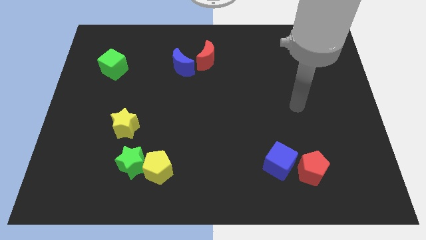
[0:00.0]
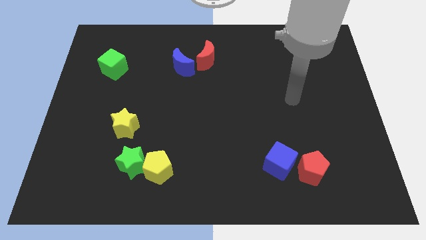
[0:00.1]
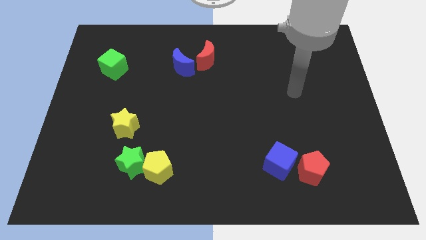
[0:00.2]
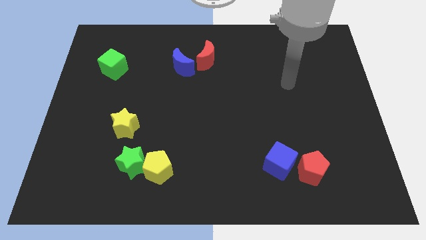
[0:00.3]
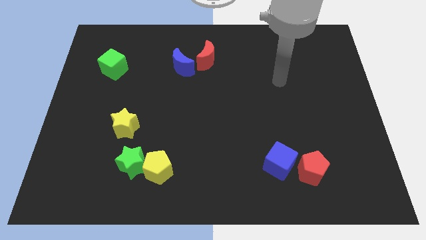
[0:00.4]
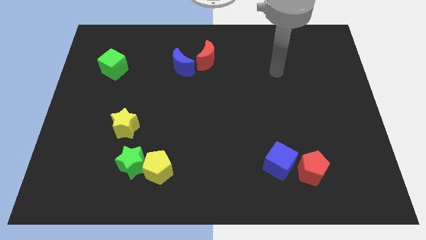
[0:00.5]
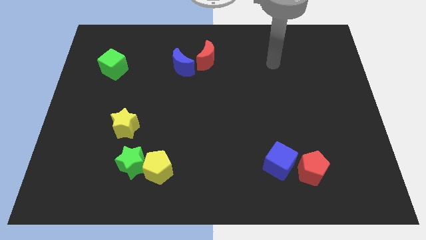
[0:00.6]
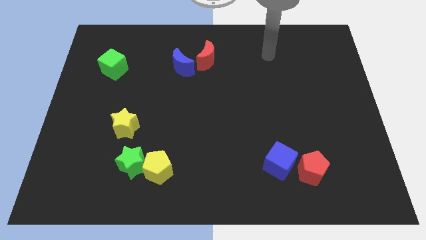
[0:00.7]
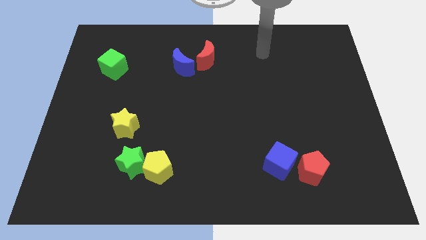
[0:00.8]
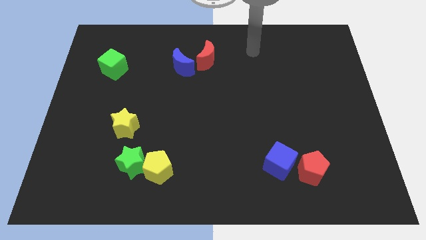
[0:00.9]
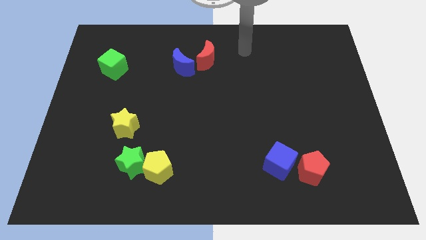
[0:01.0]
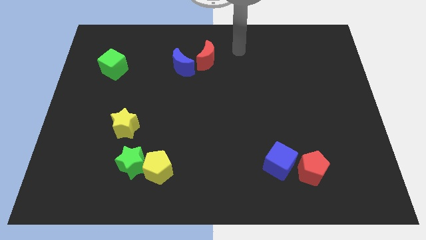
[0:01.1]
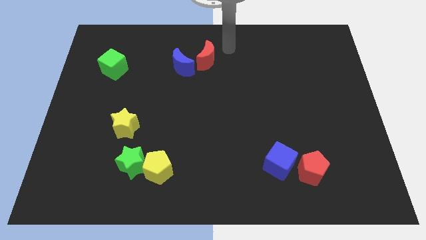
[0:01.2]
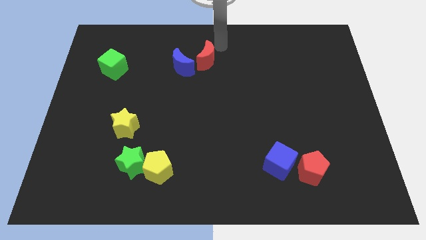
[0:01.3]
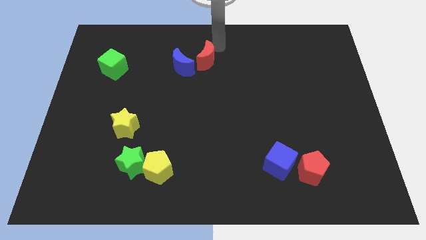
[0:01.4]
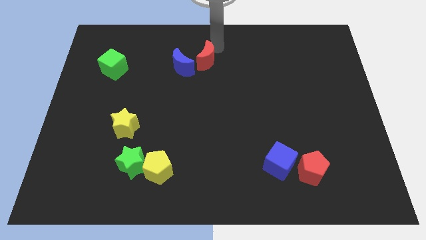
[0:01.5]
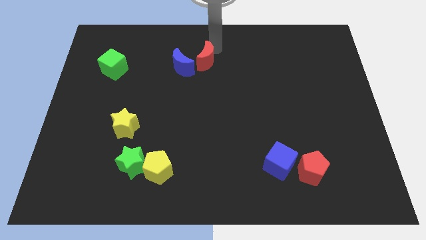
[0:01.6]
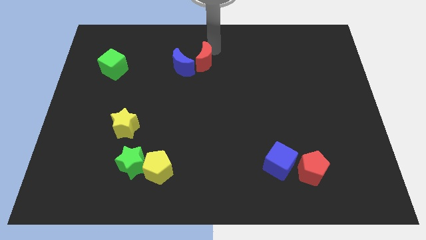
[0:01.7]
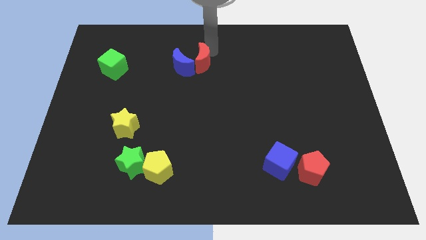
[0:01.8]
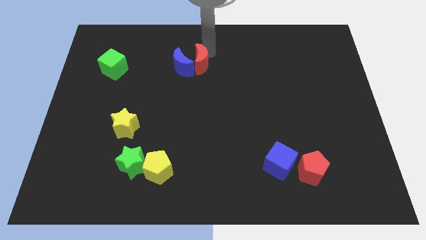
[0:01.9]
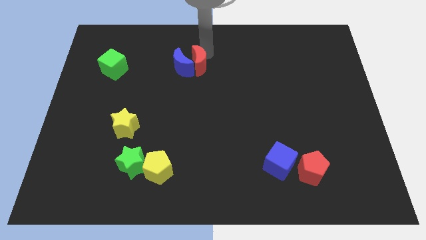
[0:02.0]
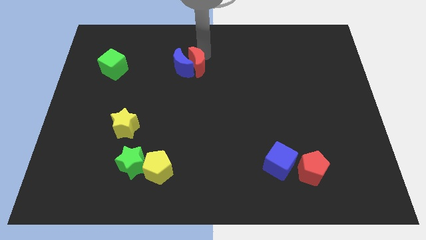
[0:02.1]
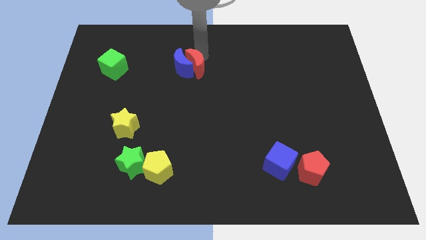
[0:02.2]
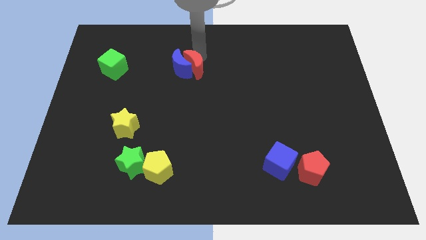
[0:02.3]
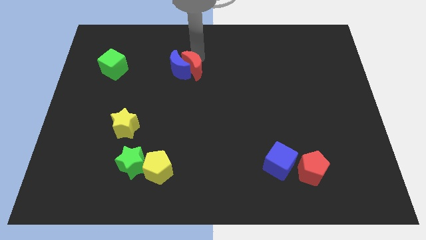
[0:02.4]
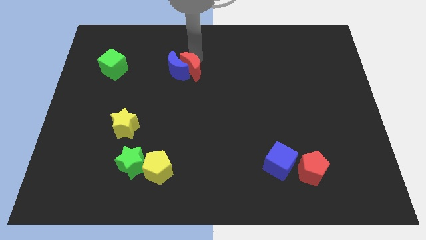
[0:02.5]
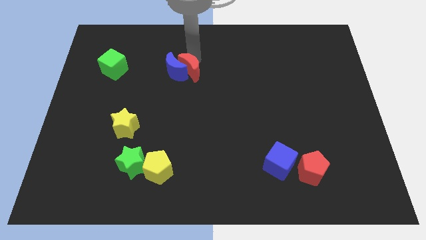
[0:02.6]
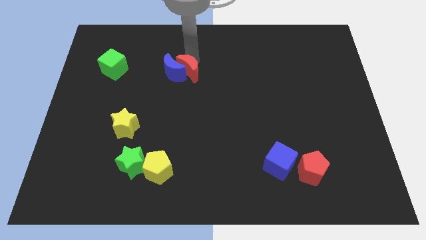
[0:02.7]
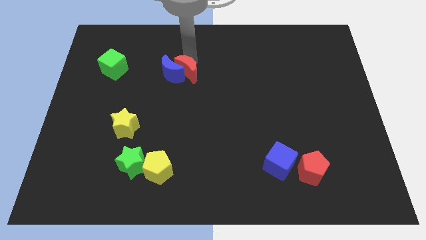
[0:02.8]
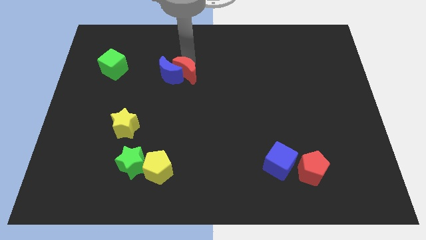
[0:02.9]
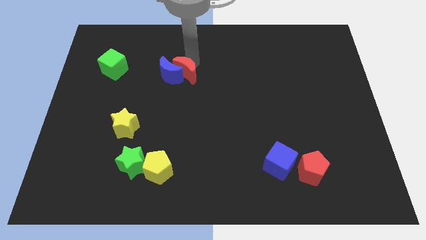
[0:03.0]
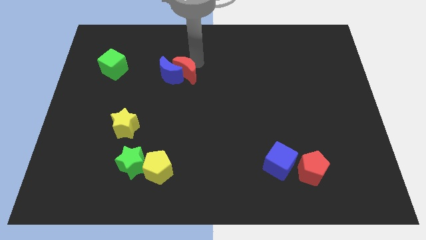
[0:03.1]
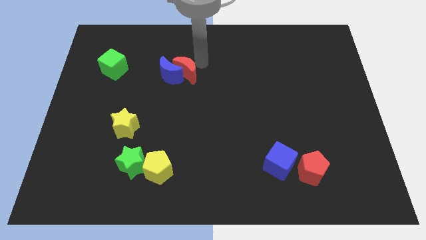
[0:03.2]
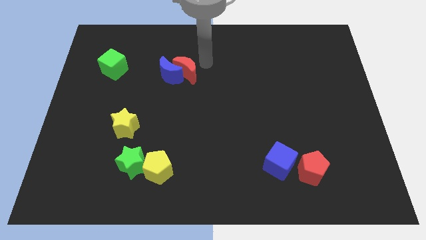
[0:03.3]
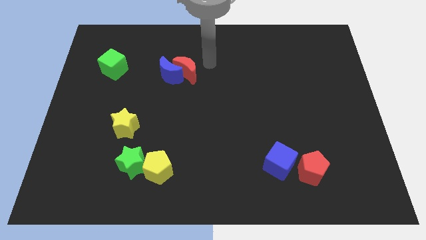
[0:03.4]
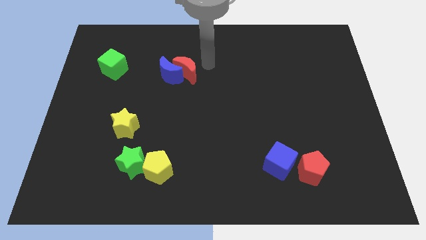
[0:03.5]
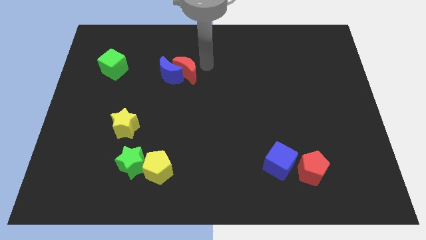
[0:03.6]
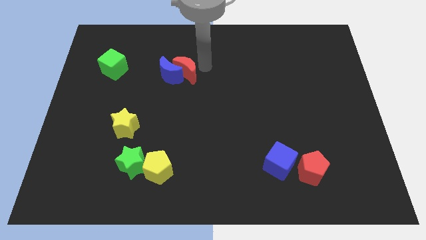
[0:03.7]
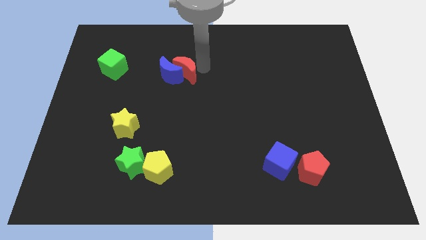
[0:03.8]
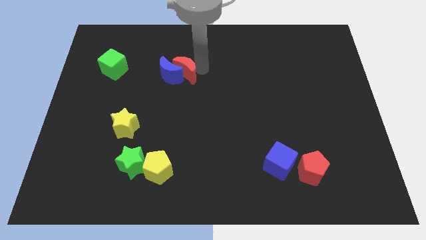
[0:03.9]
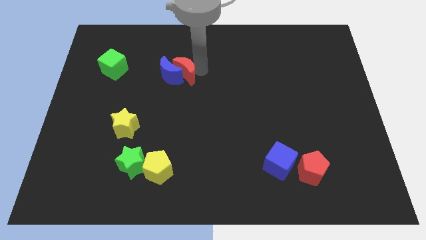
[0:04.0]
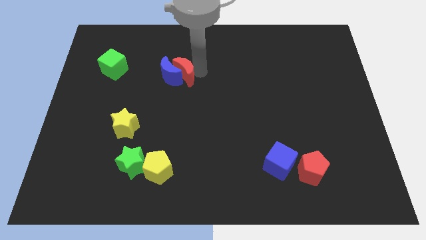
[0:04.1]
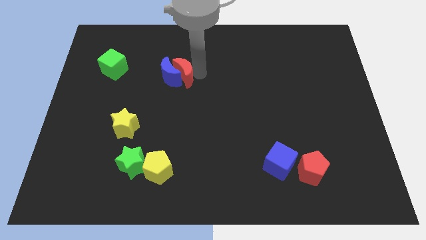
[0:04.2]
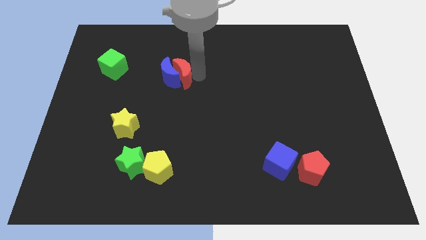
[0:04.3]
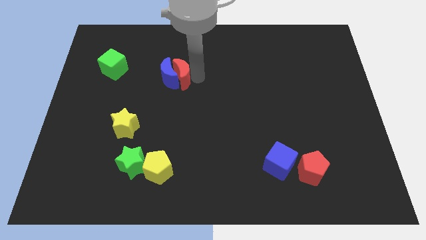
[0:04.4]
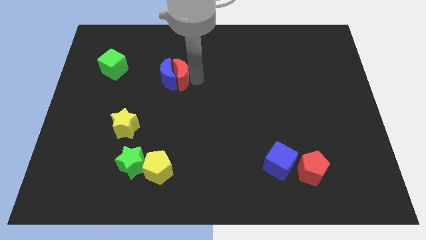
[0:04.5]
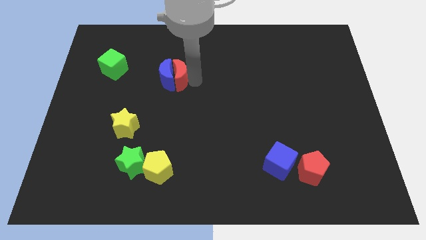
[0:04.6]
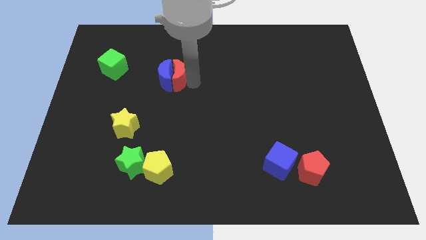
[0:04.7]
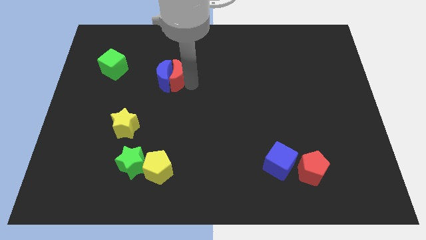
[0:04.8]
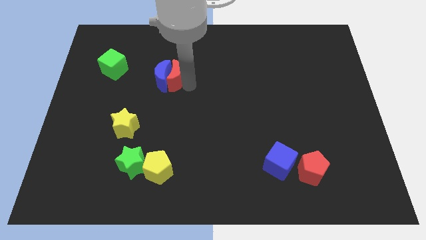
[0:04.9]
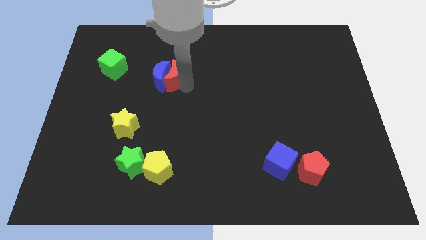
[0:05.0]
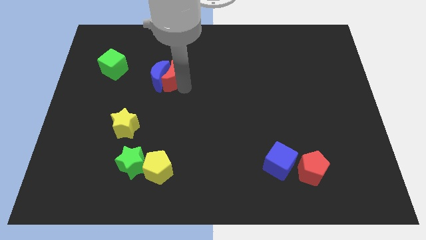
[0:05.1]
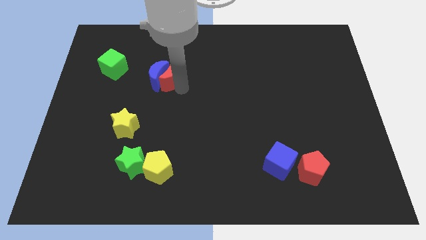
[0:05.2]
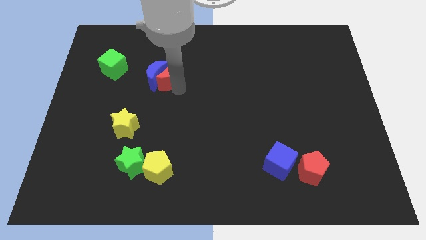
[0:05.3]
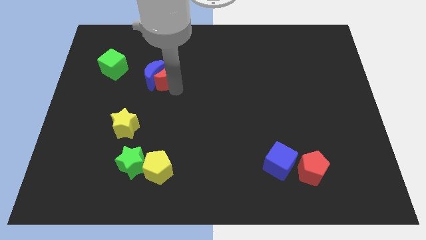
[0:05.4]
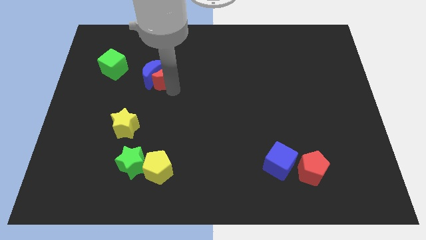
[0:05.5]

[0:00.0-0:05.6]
put the red moon just right of the green cube

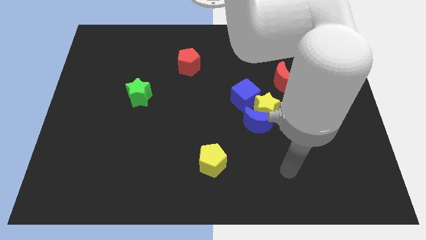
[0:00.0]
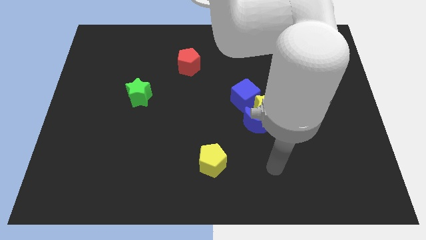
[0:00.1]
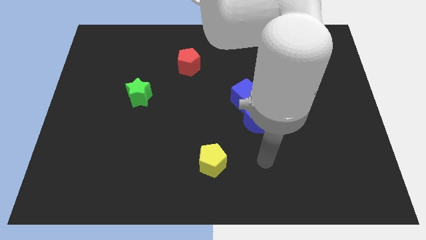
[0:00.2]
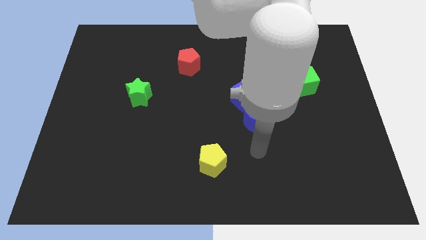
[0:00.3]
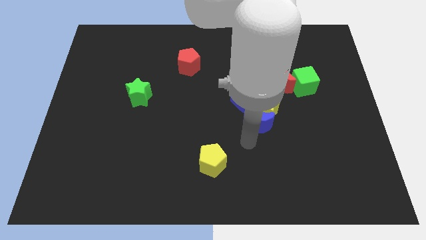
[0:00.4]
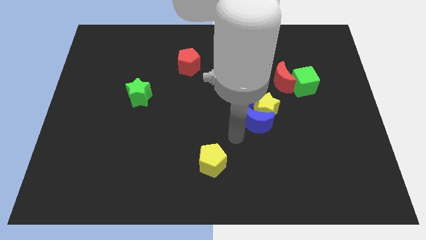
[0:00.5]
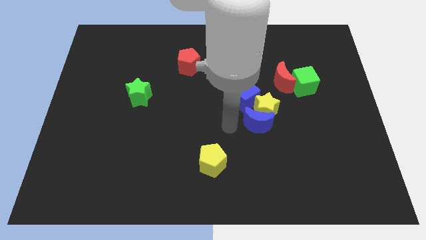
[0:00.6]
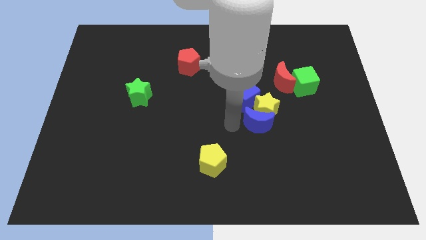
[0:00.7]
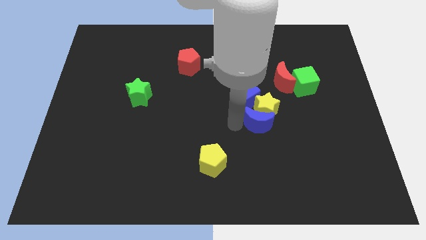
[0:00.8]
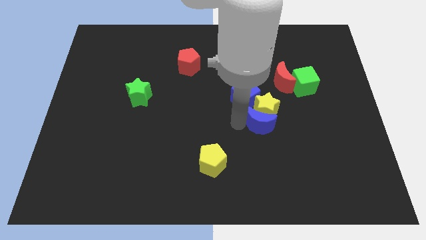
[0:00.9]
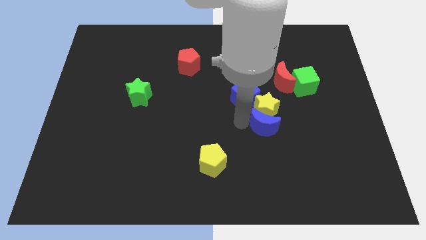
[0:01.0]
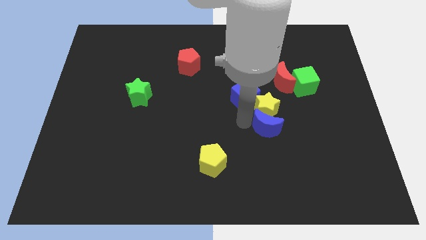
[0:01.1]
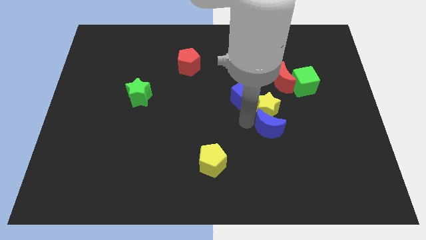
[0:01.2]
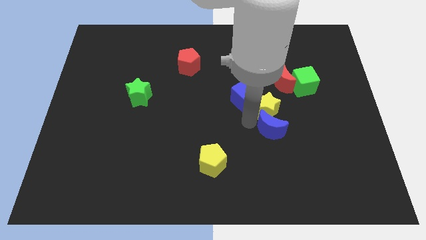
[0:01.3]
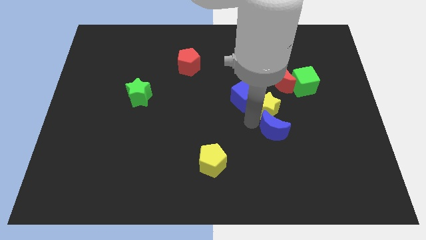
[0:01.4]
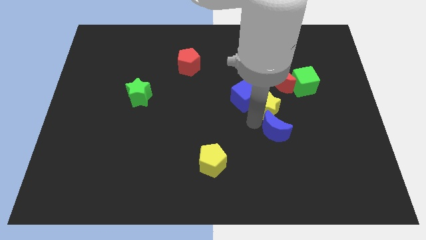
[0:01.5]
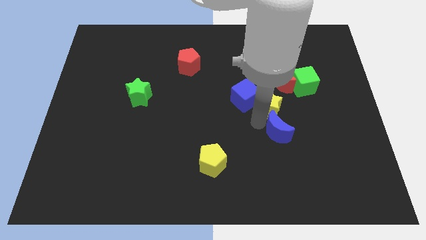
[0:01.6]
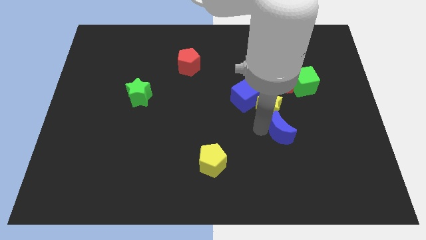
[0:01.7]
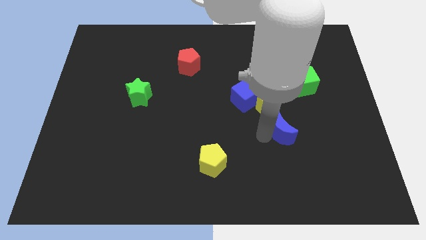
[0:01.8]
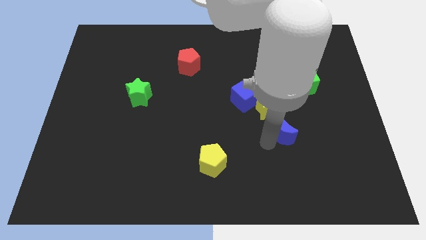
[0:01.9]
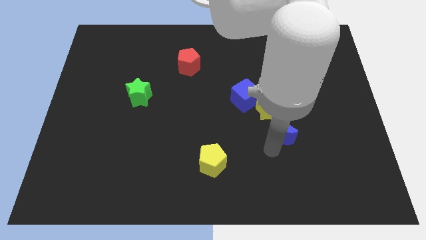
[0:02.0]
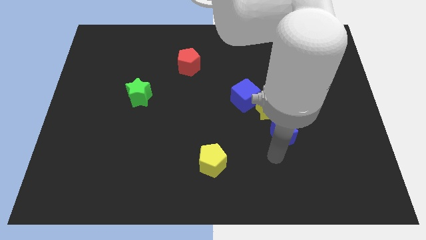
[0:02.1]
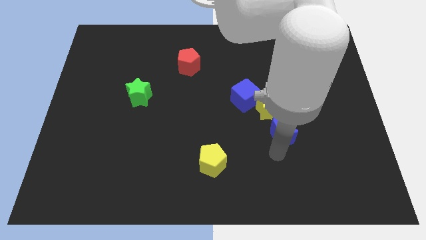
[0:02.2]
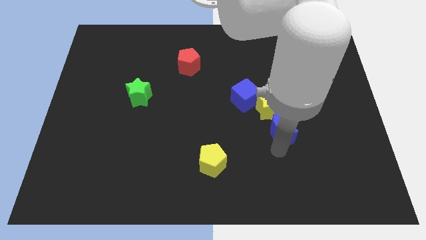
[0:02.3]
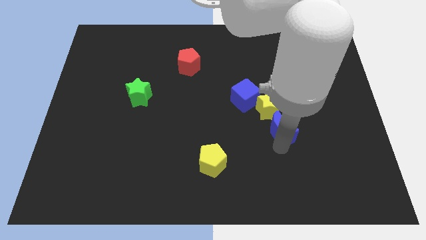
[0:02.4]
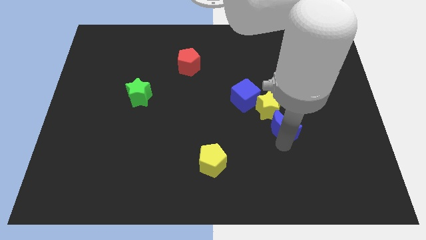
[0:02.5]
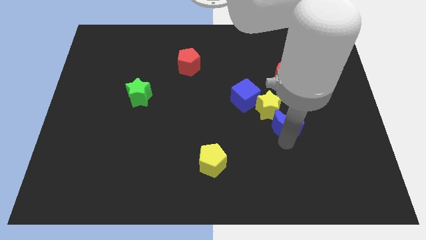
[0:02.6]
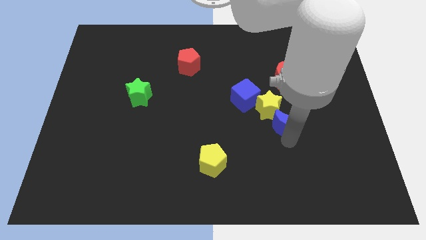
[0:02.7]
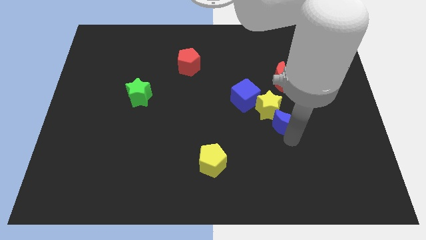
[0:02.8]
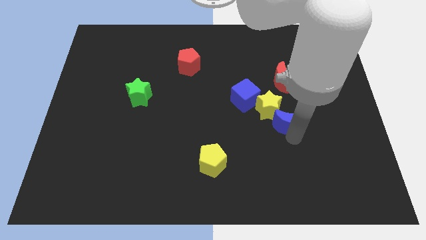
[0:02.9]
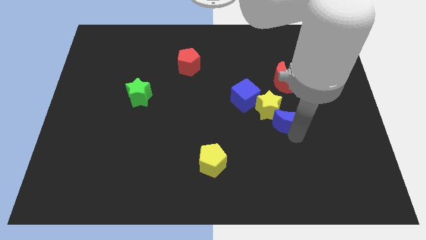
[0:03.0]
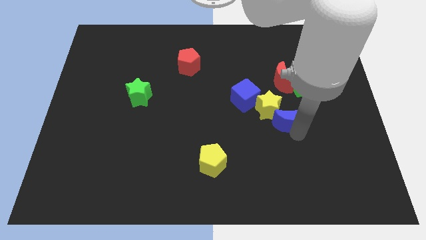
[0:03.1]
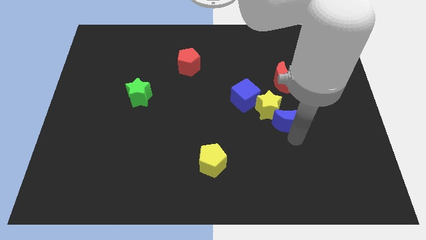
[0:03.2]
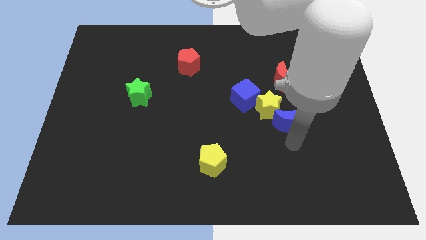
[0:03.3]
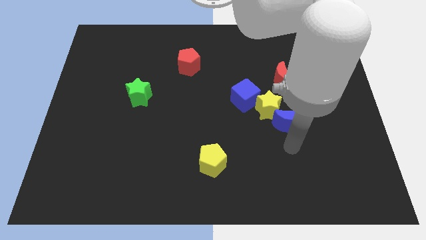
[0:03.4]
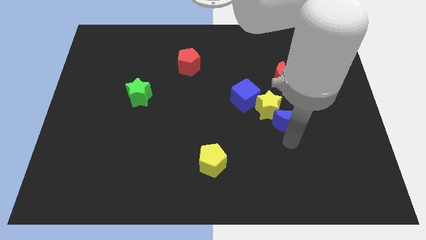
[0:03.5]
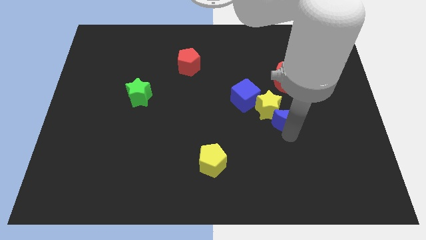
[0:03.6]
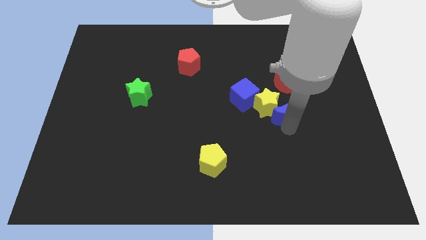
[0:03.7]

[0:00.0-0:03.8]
push the blue moon to the bottom left side of the green cube
